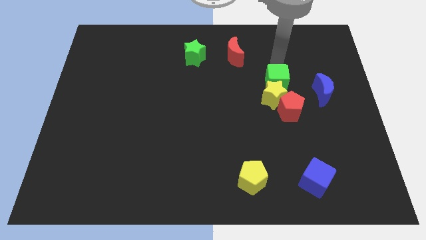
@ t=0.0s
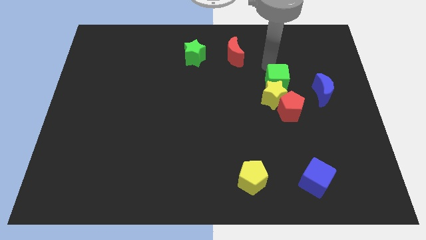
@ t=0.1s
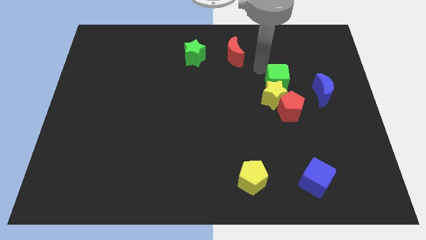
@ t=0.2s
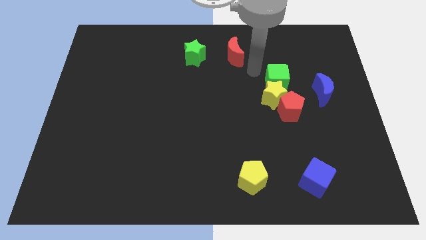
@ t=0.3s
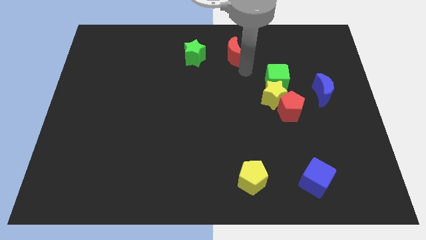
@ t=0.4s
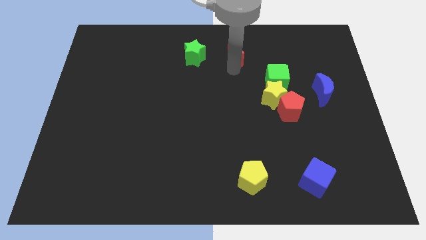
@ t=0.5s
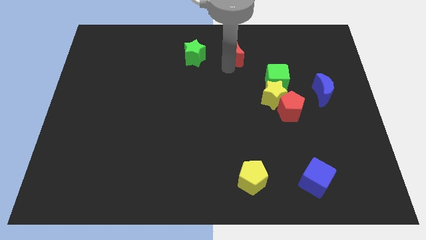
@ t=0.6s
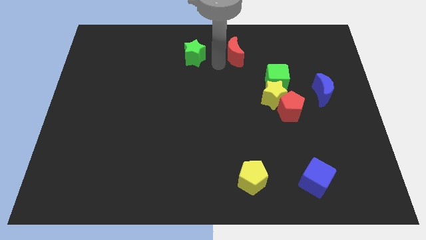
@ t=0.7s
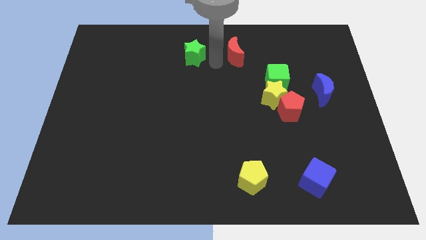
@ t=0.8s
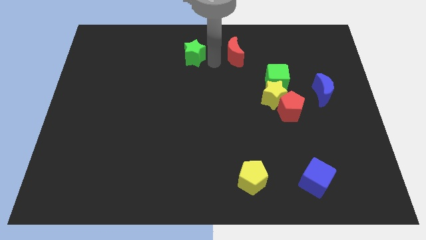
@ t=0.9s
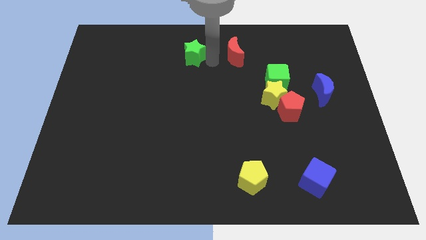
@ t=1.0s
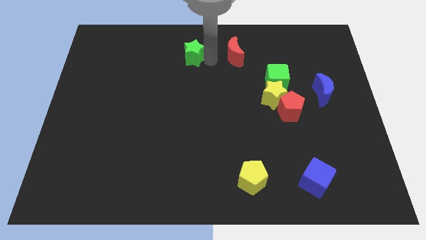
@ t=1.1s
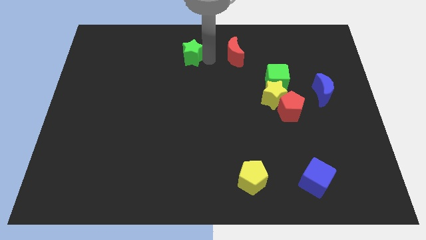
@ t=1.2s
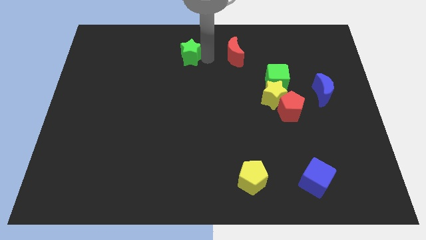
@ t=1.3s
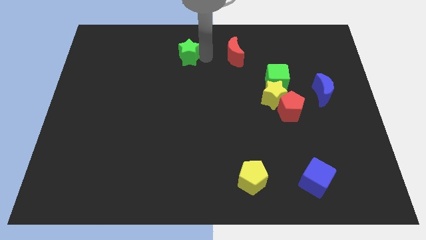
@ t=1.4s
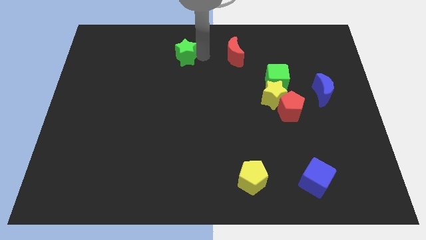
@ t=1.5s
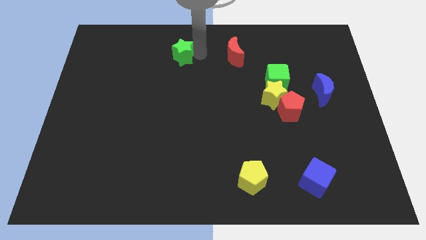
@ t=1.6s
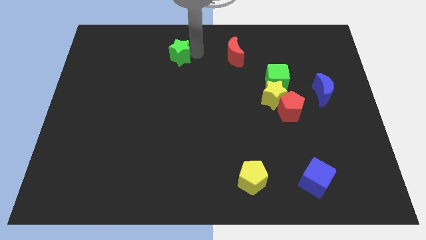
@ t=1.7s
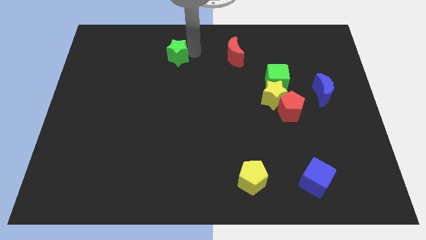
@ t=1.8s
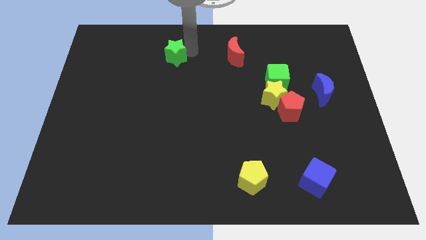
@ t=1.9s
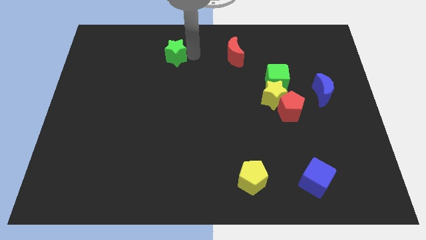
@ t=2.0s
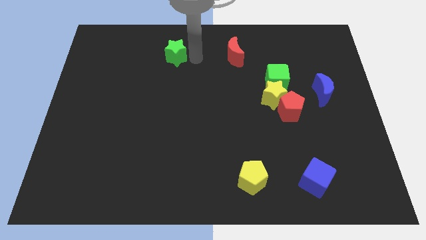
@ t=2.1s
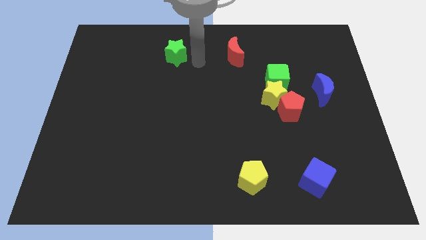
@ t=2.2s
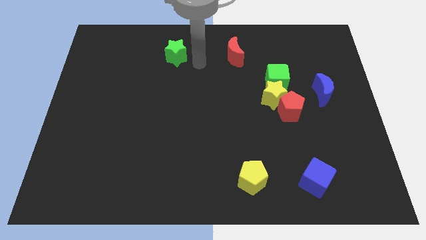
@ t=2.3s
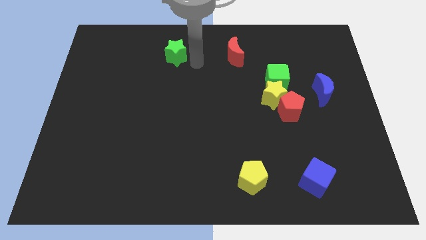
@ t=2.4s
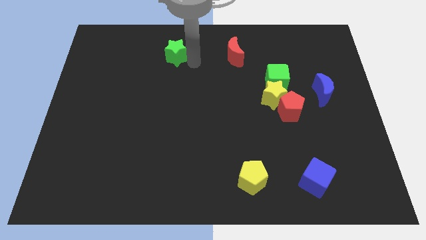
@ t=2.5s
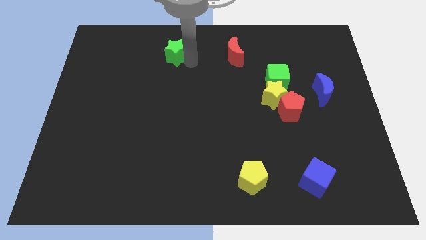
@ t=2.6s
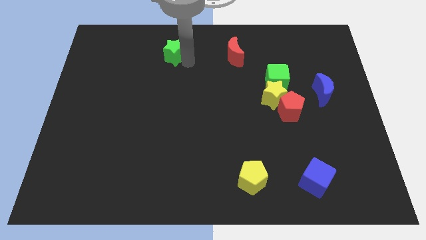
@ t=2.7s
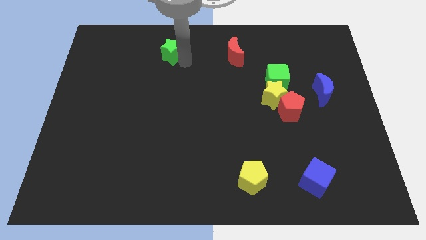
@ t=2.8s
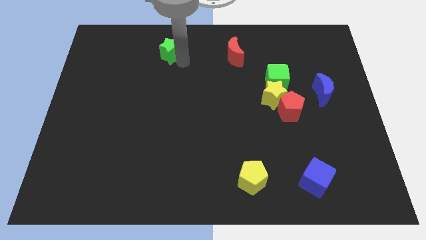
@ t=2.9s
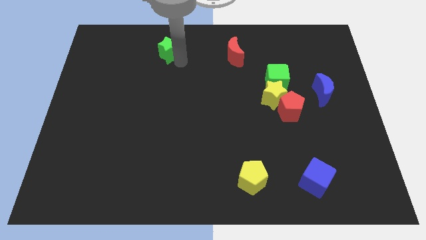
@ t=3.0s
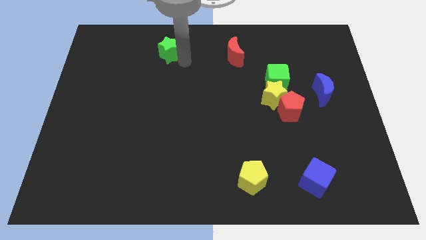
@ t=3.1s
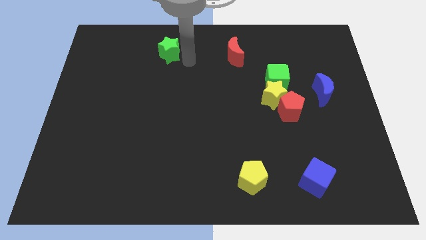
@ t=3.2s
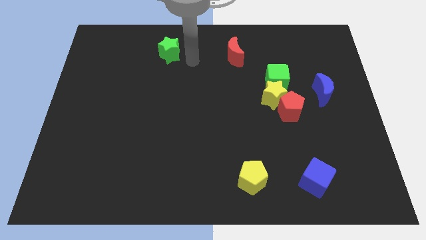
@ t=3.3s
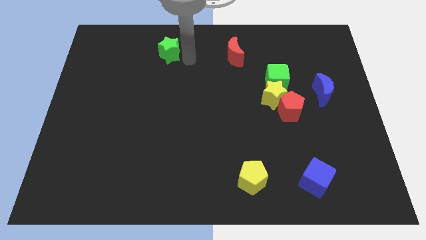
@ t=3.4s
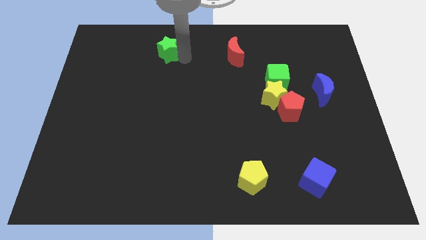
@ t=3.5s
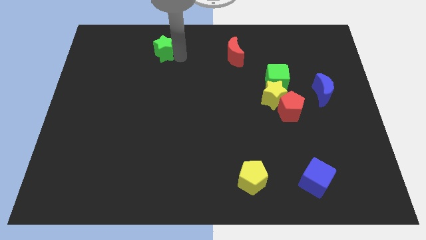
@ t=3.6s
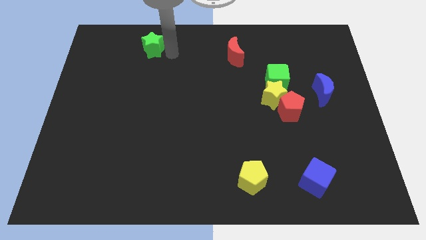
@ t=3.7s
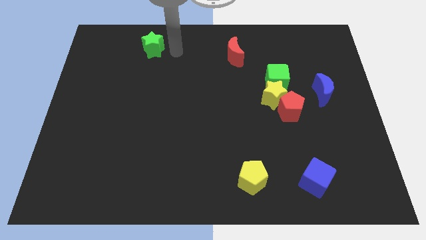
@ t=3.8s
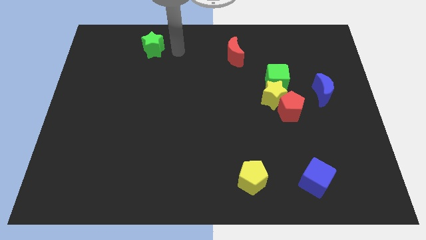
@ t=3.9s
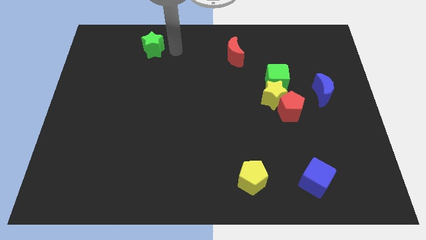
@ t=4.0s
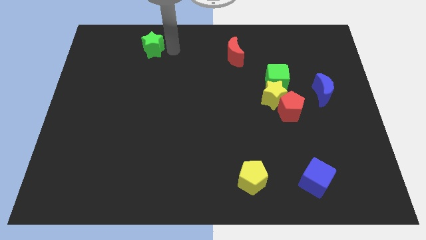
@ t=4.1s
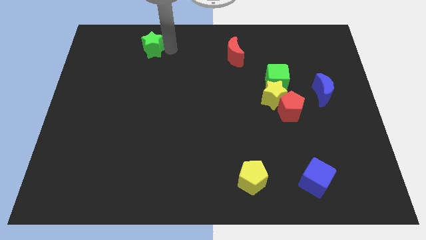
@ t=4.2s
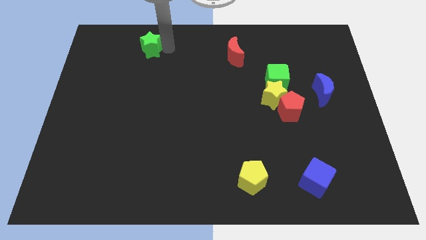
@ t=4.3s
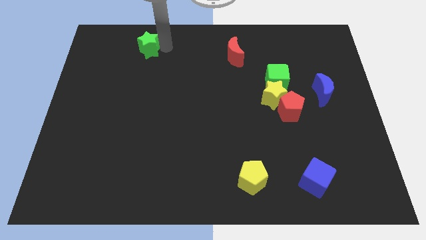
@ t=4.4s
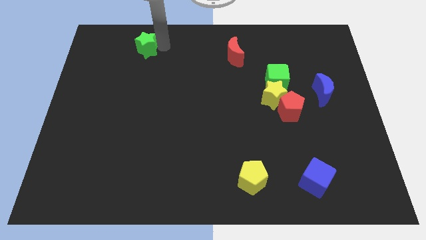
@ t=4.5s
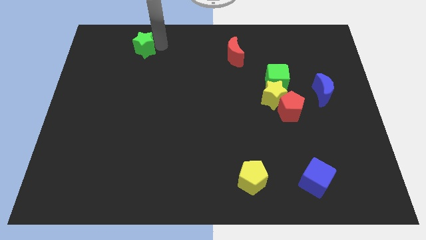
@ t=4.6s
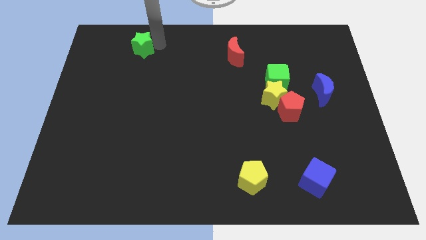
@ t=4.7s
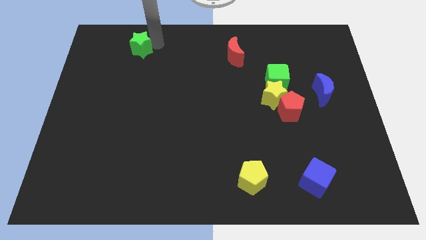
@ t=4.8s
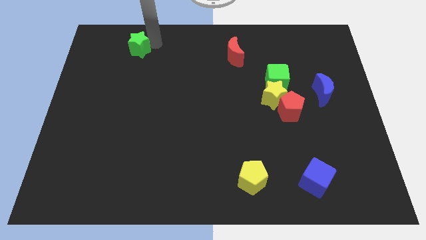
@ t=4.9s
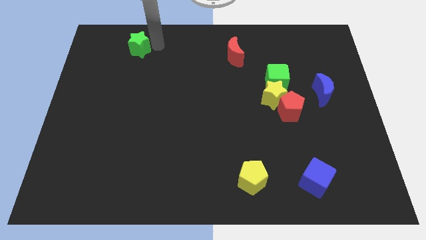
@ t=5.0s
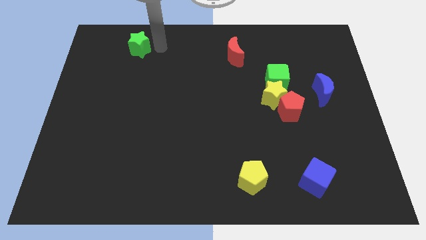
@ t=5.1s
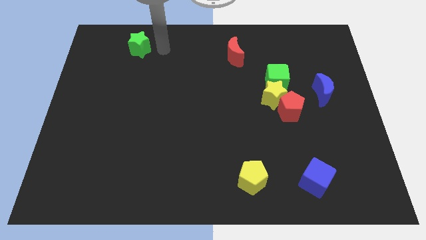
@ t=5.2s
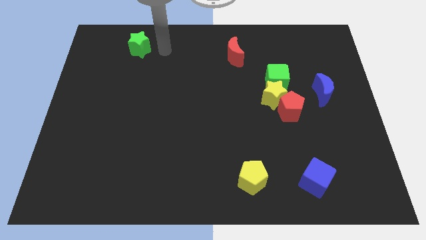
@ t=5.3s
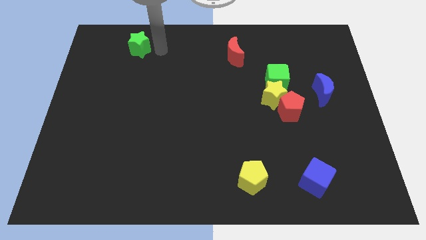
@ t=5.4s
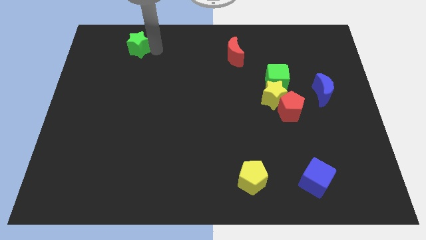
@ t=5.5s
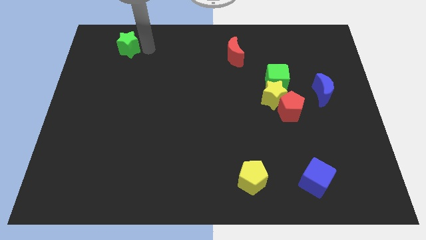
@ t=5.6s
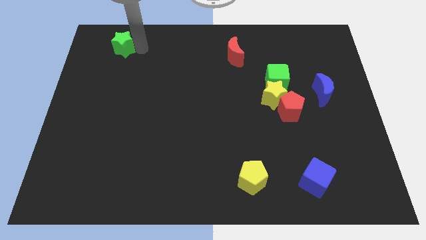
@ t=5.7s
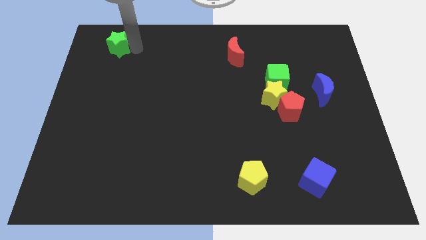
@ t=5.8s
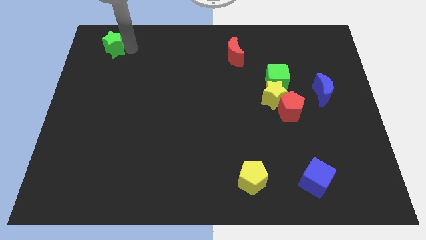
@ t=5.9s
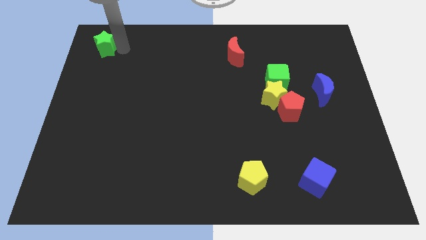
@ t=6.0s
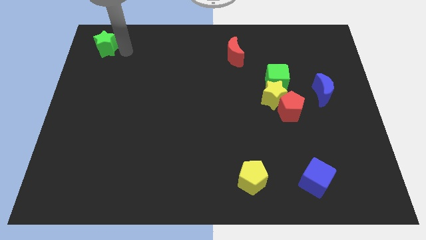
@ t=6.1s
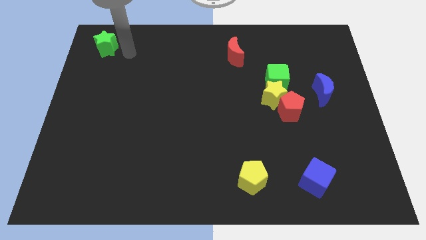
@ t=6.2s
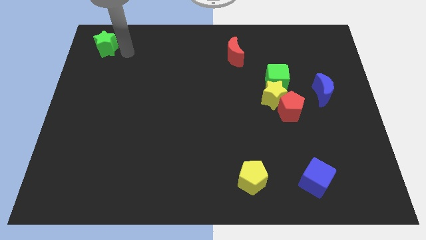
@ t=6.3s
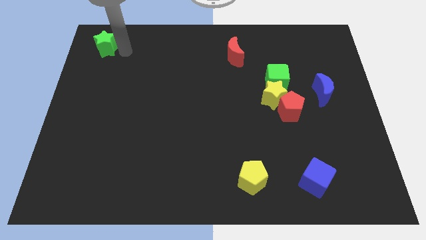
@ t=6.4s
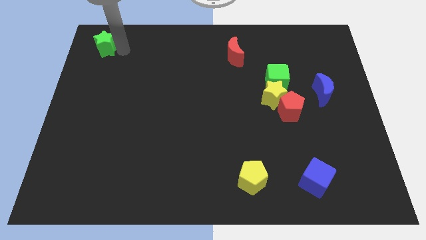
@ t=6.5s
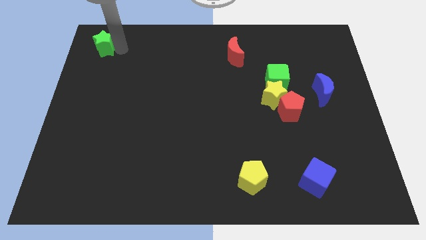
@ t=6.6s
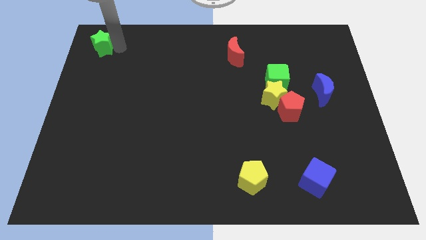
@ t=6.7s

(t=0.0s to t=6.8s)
push the green star to the top left corner

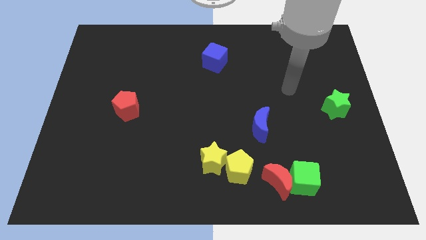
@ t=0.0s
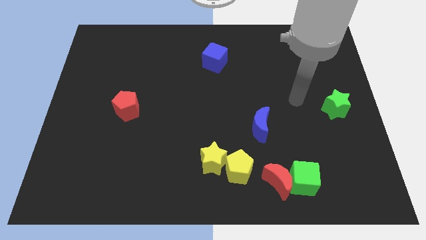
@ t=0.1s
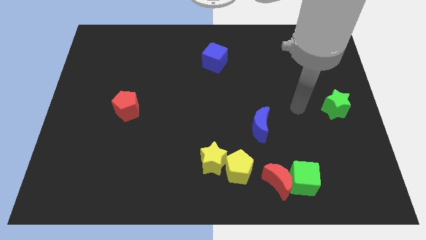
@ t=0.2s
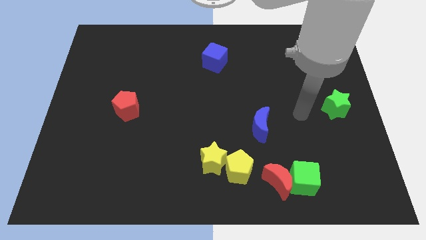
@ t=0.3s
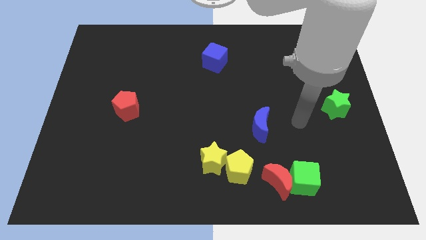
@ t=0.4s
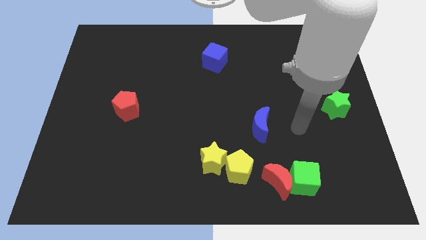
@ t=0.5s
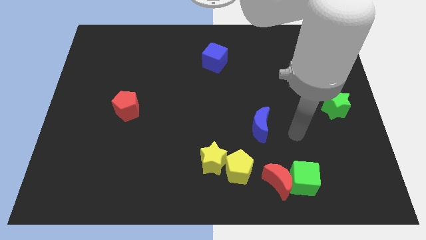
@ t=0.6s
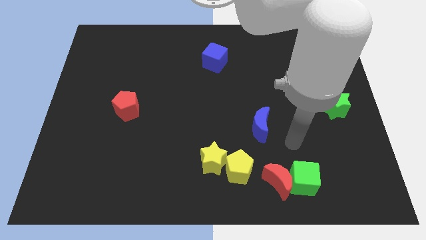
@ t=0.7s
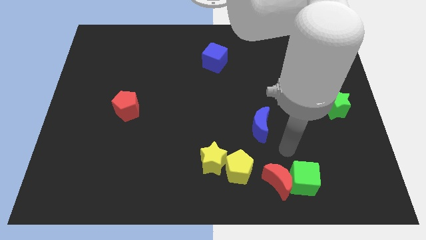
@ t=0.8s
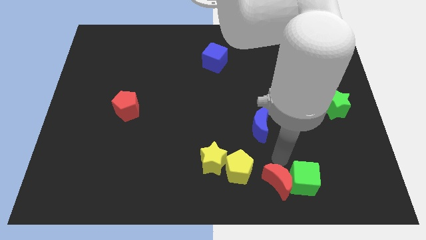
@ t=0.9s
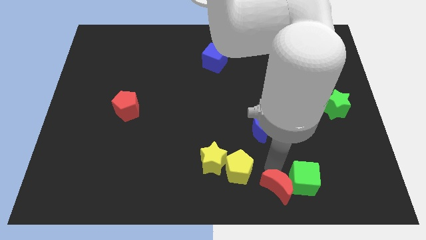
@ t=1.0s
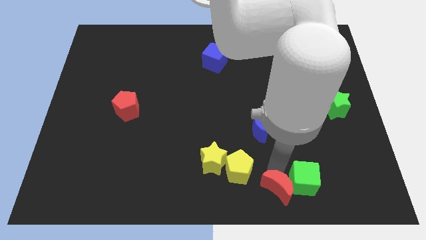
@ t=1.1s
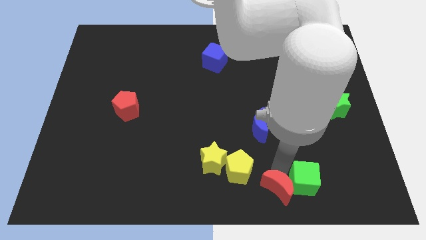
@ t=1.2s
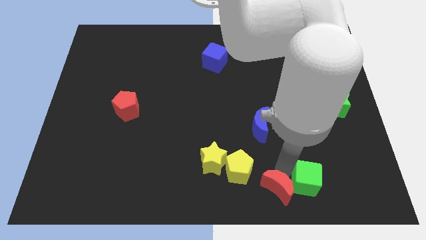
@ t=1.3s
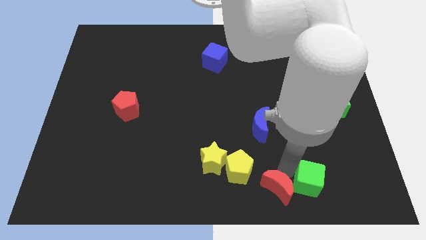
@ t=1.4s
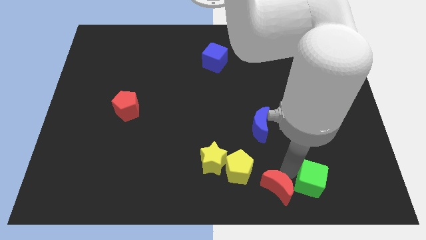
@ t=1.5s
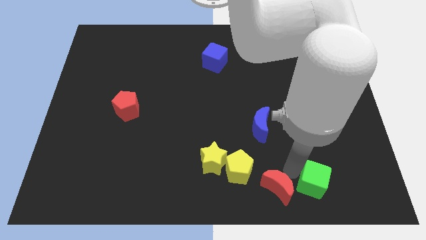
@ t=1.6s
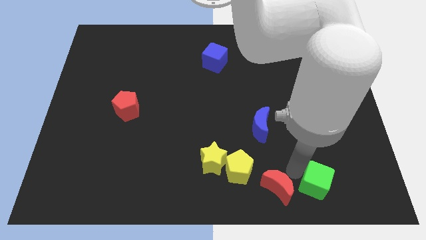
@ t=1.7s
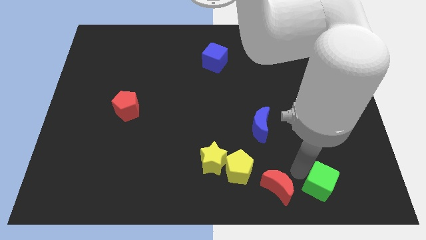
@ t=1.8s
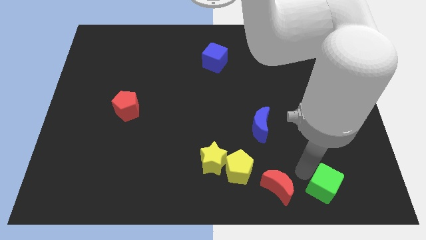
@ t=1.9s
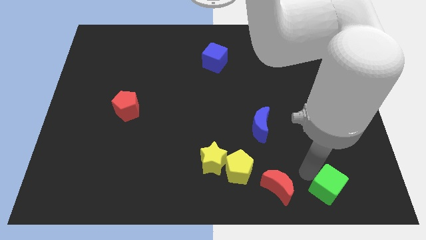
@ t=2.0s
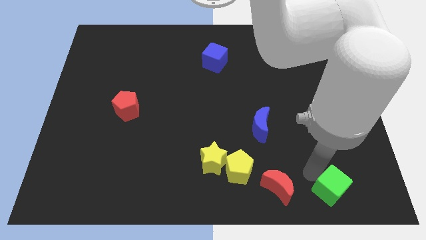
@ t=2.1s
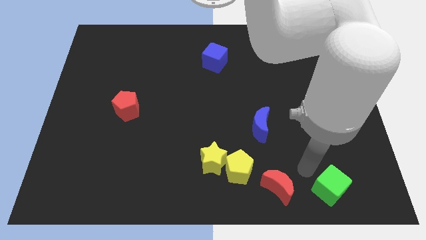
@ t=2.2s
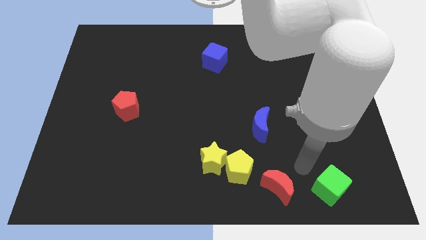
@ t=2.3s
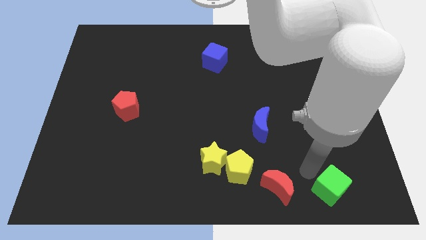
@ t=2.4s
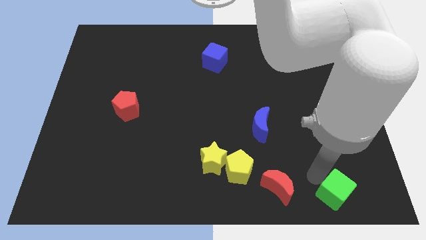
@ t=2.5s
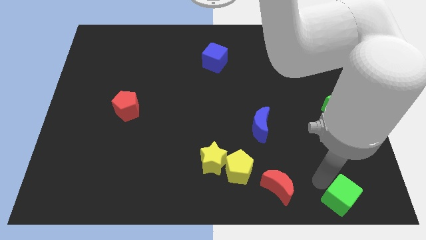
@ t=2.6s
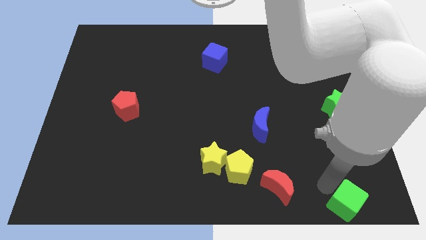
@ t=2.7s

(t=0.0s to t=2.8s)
move the green cube to the bottom right of the board
